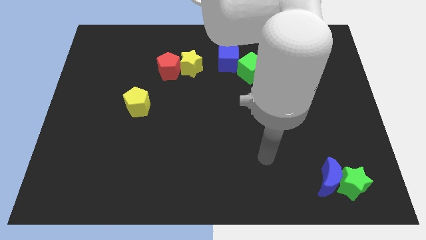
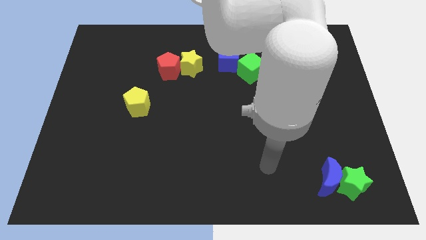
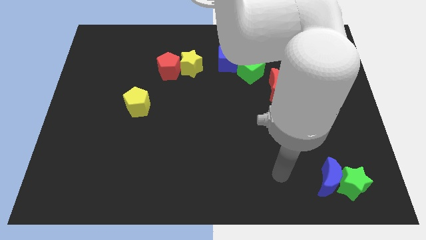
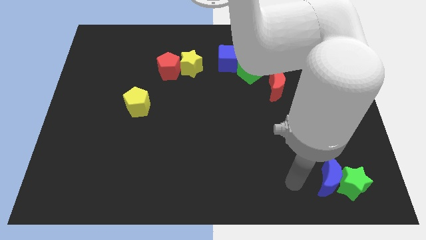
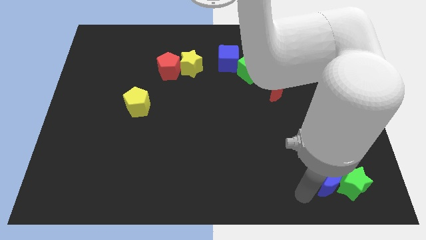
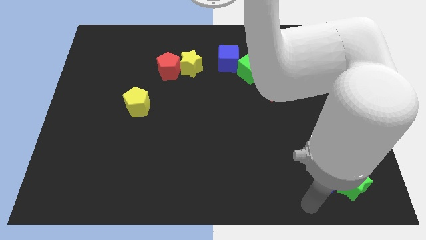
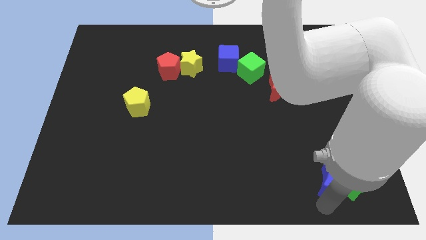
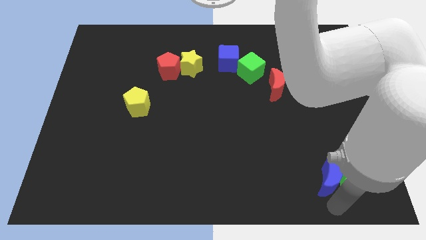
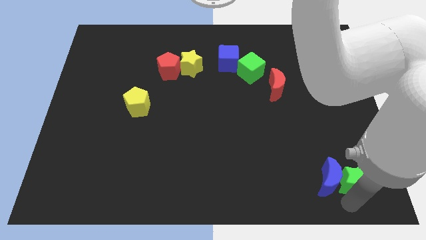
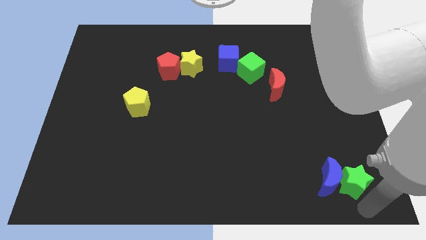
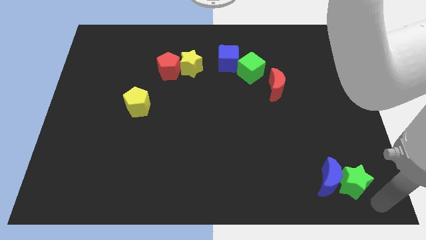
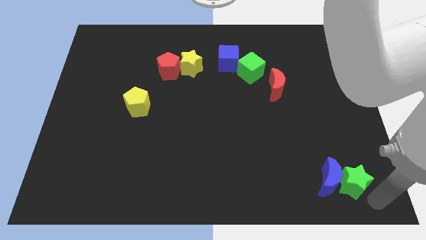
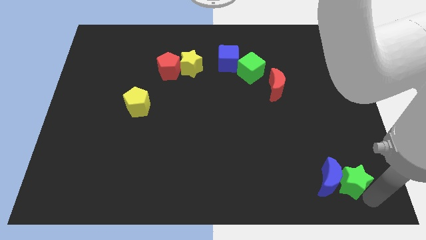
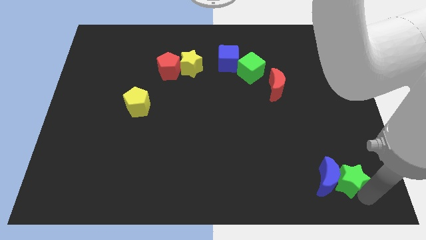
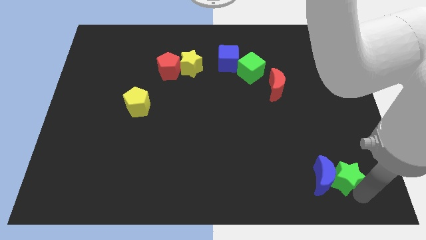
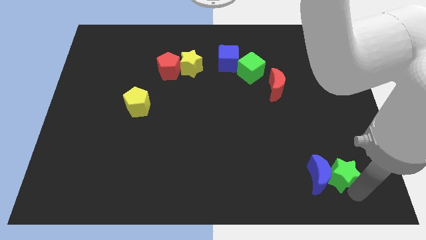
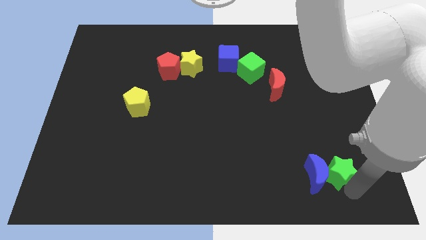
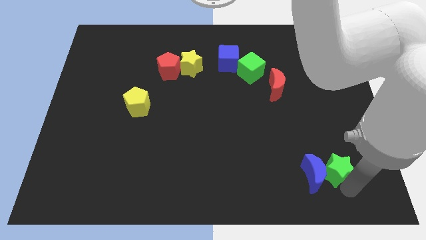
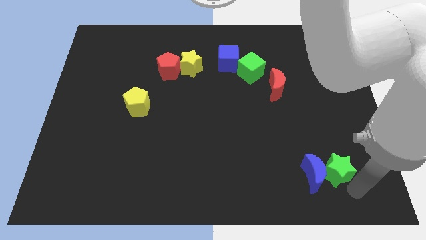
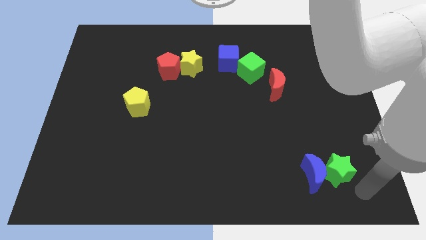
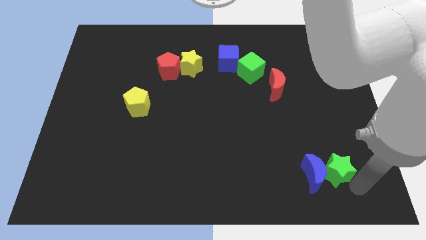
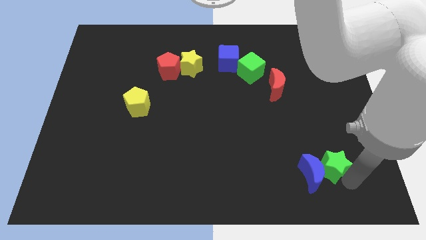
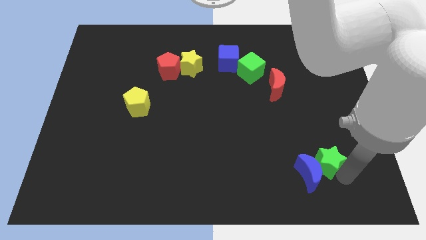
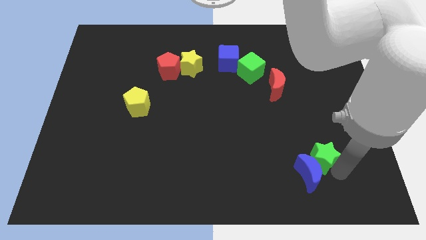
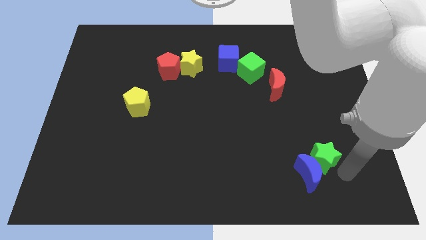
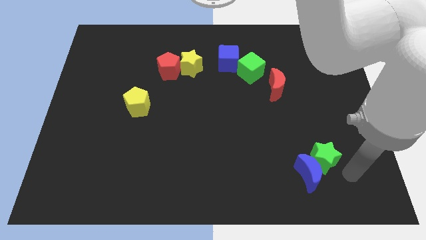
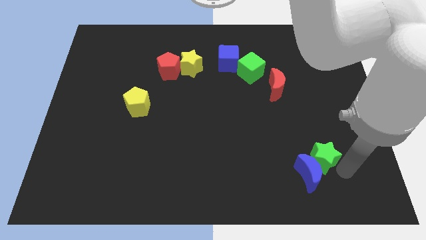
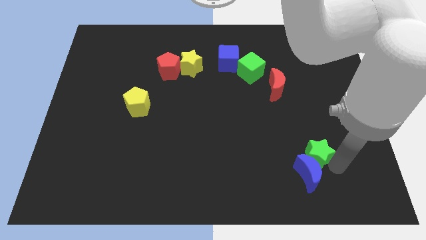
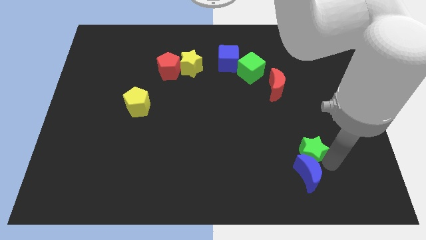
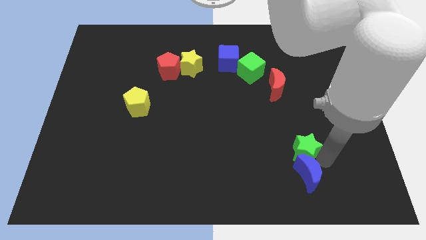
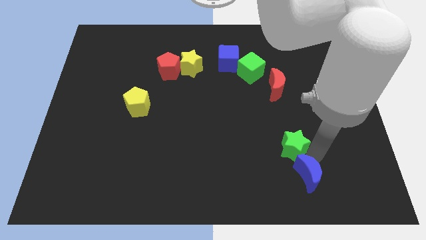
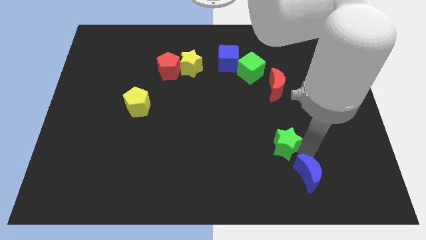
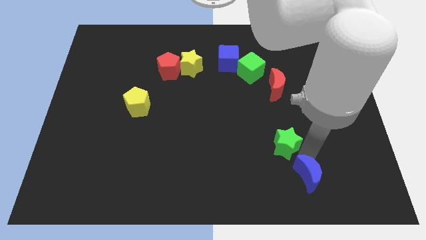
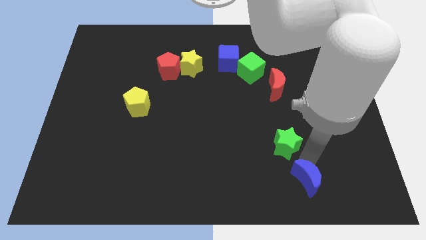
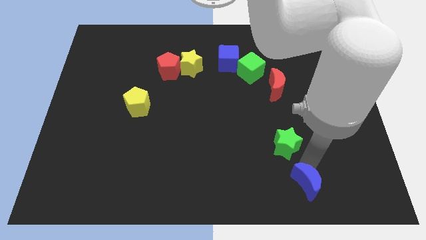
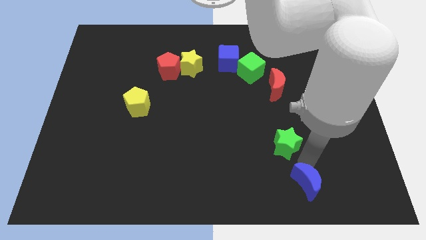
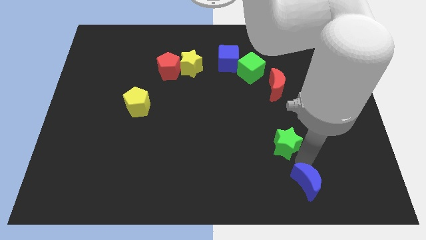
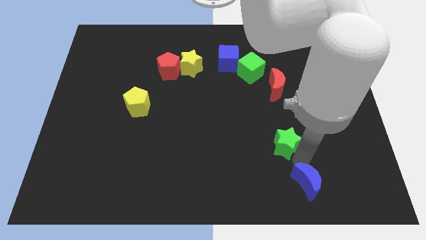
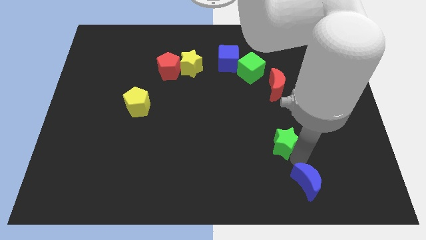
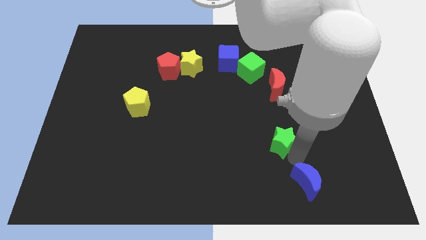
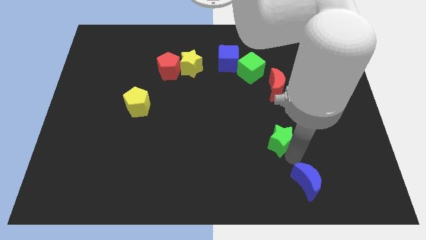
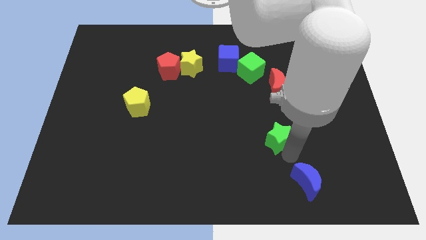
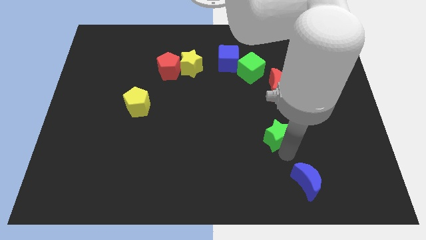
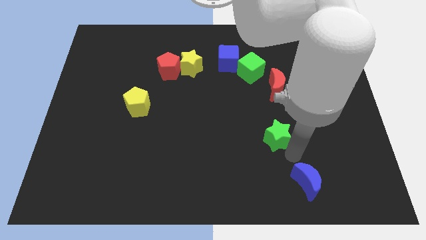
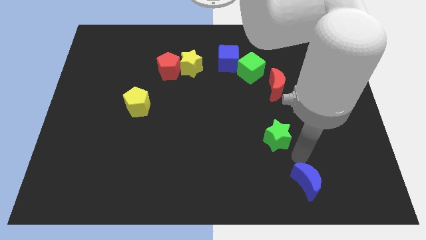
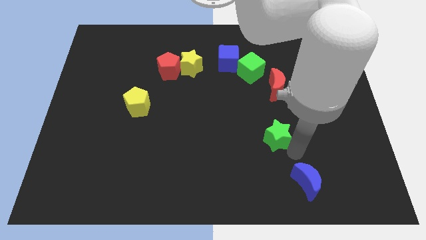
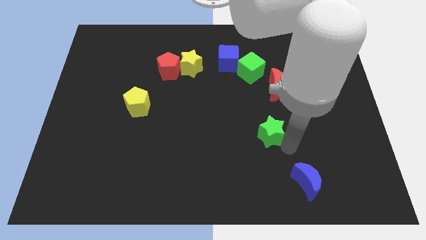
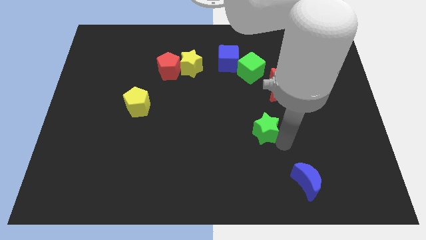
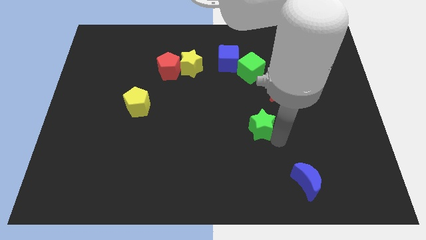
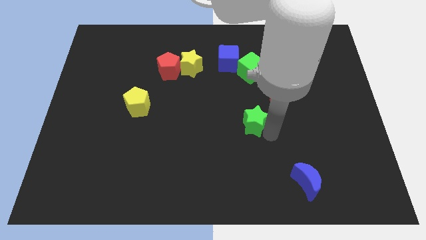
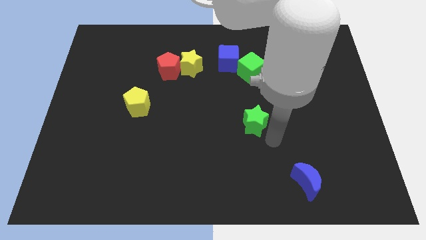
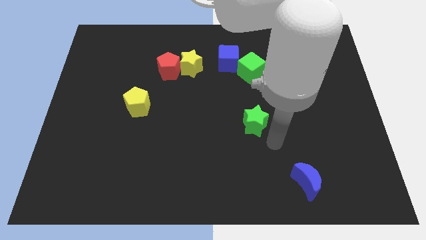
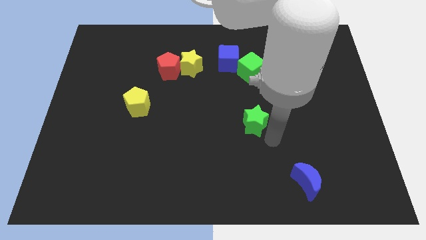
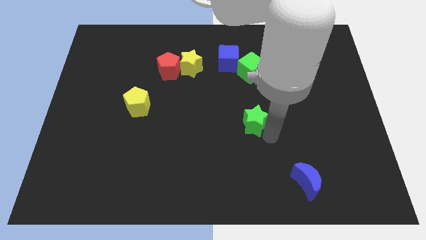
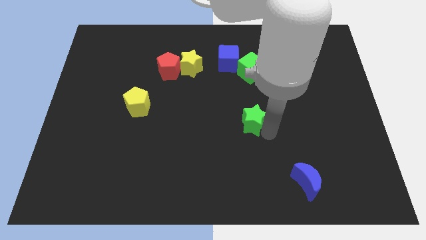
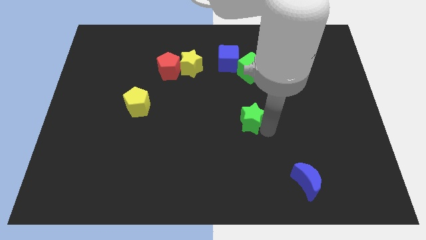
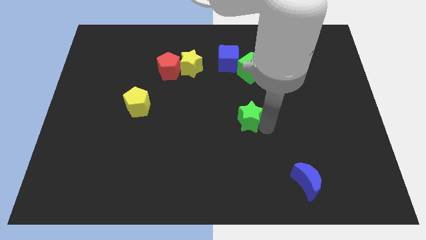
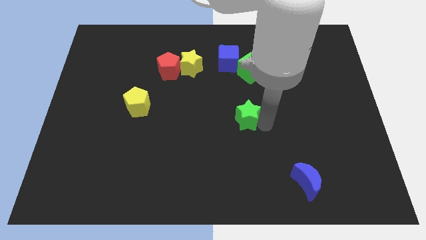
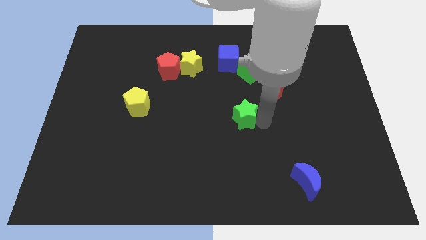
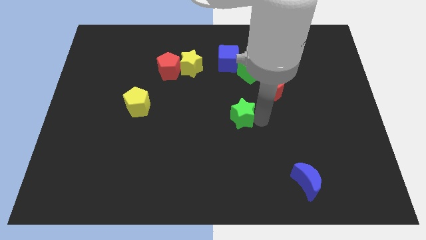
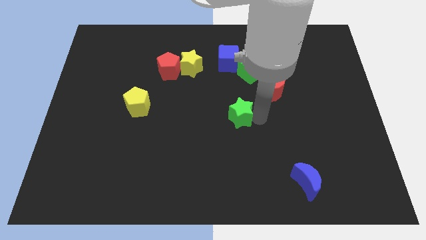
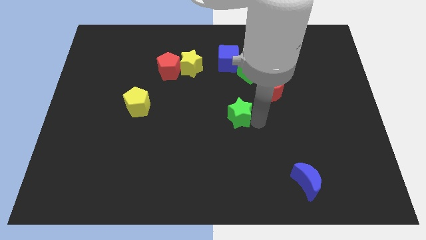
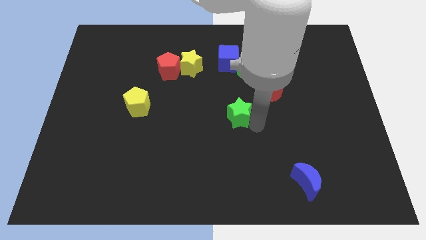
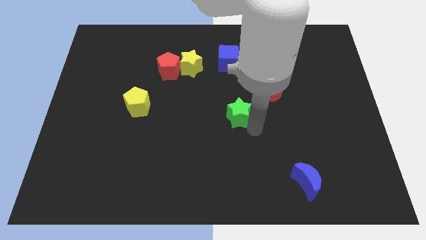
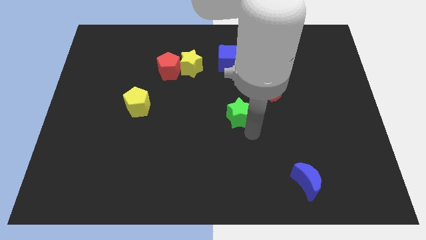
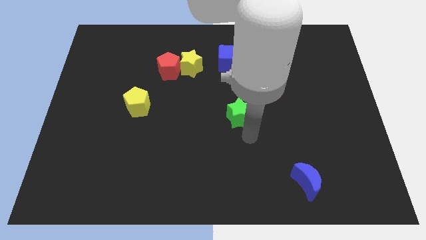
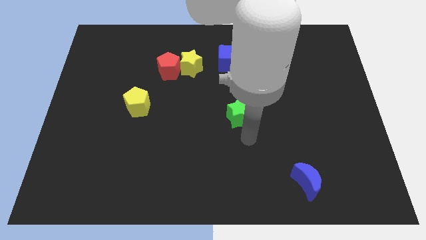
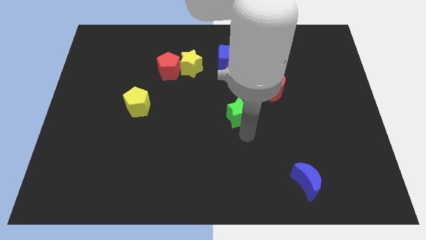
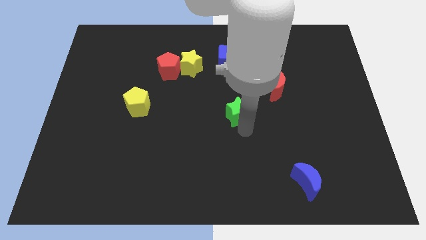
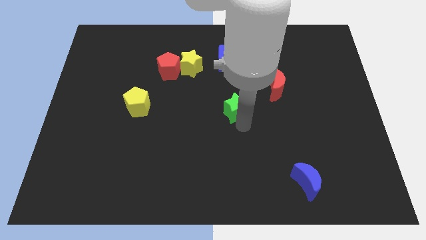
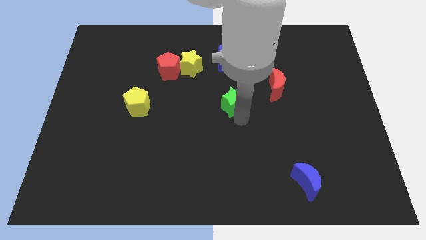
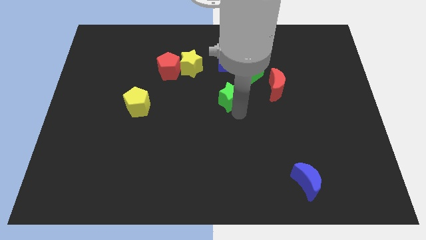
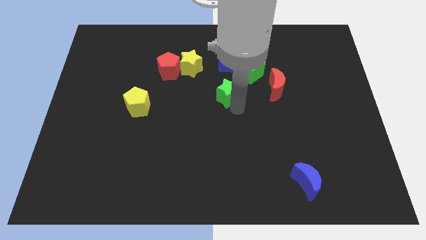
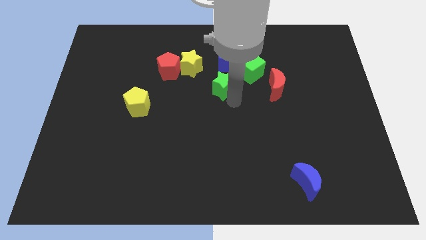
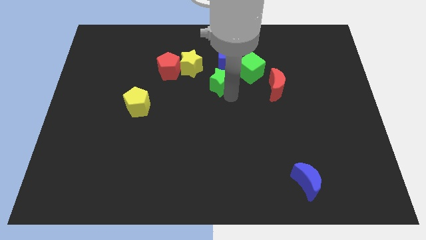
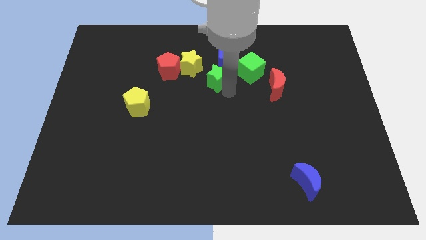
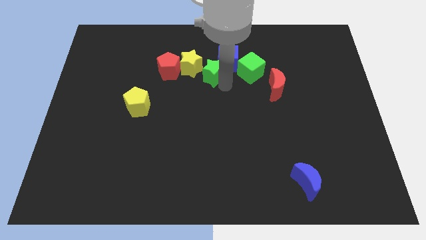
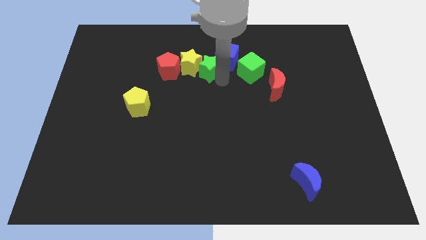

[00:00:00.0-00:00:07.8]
push the green star next to the yellow star
